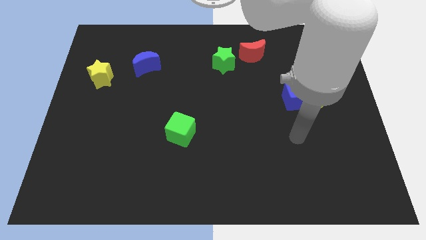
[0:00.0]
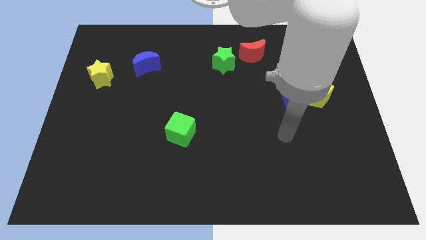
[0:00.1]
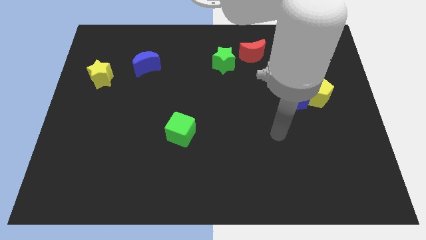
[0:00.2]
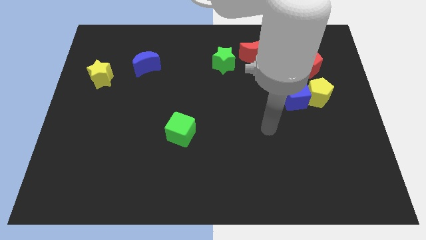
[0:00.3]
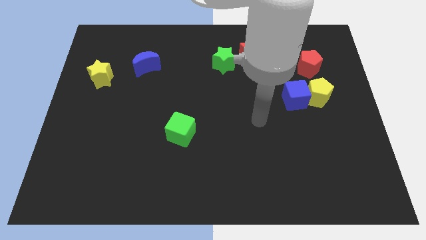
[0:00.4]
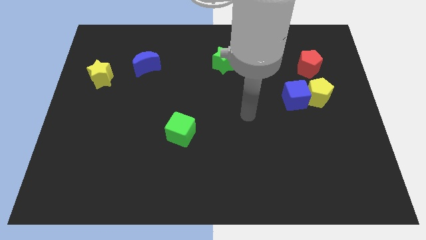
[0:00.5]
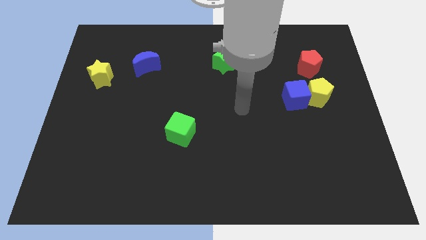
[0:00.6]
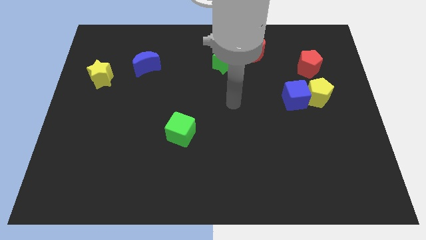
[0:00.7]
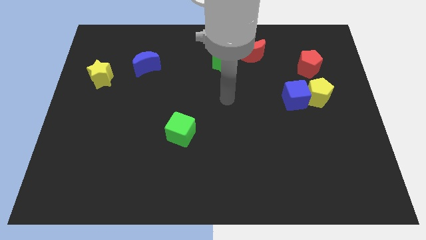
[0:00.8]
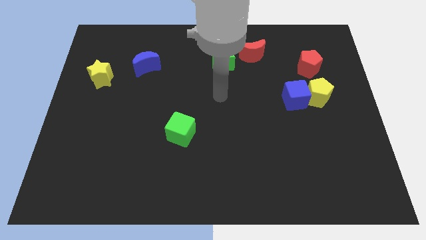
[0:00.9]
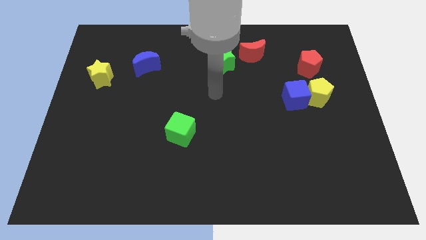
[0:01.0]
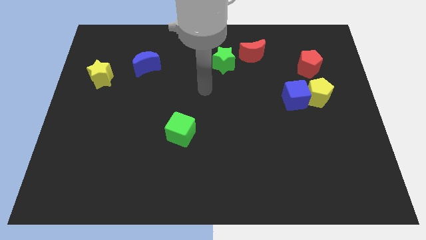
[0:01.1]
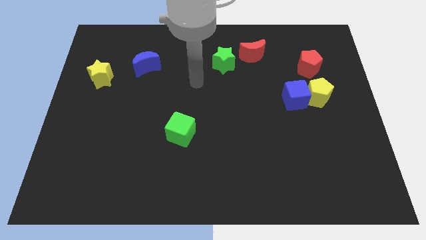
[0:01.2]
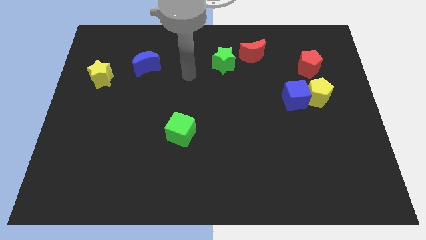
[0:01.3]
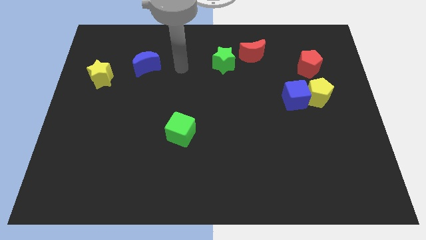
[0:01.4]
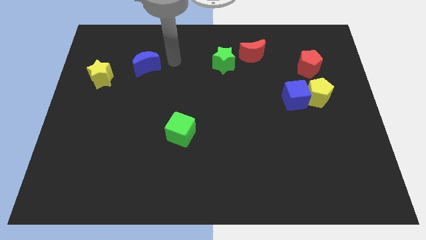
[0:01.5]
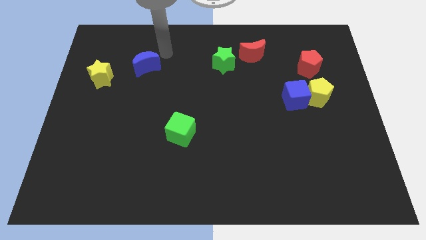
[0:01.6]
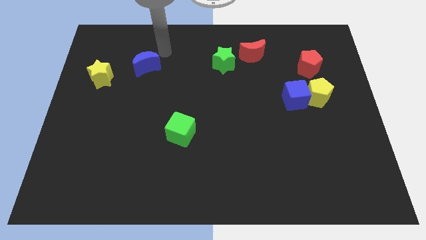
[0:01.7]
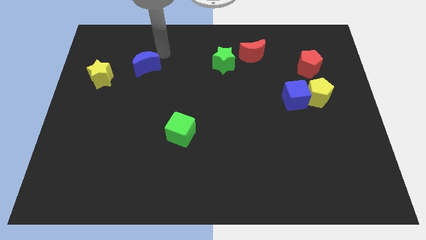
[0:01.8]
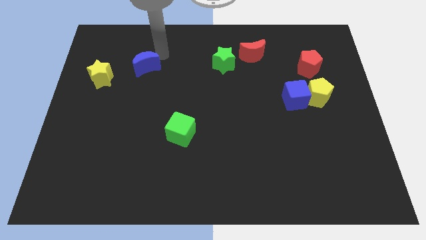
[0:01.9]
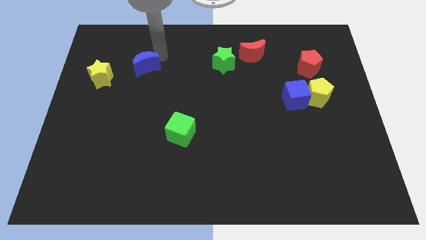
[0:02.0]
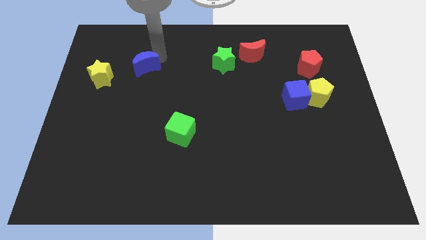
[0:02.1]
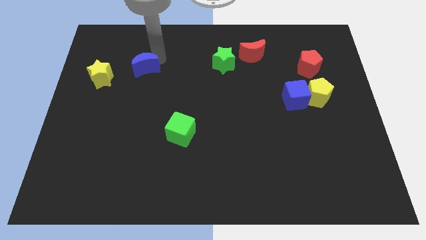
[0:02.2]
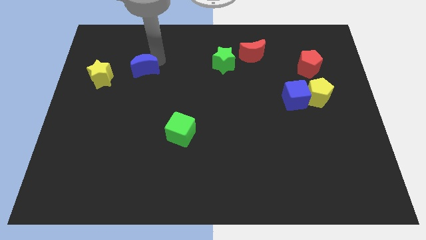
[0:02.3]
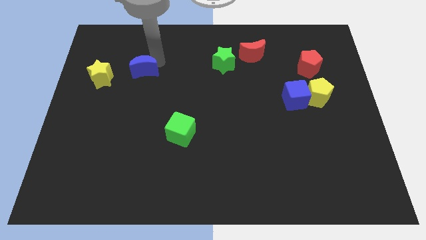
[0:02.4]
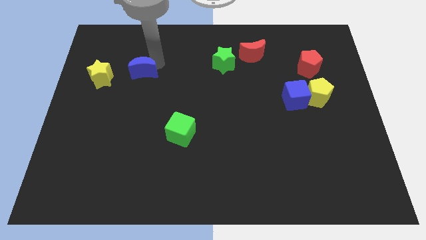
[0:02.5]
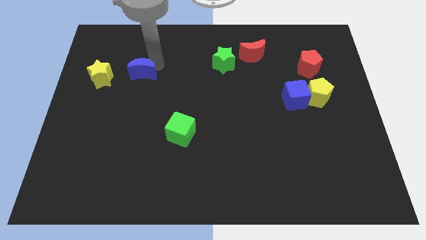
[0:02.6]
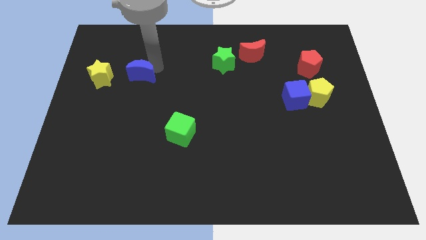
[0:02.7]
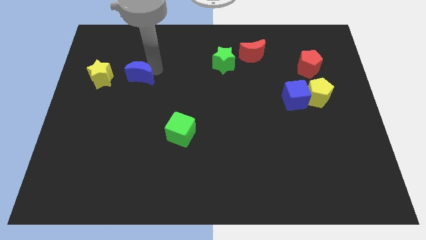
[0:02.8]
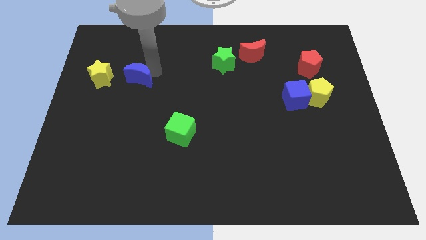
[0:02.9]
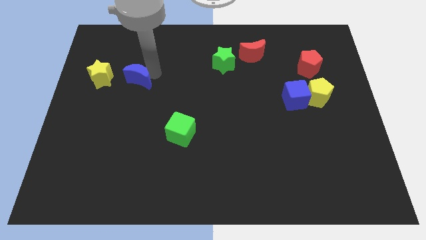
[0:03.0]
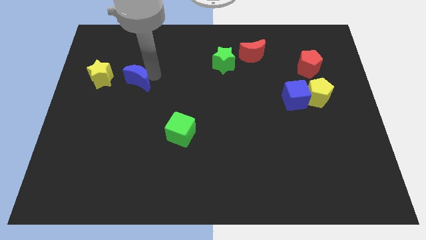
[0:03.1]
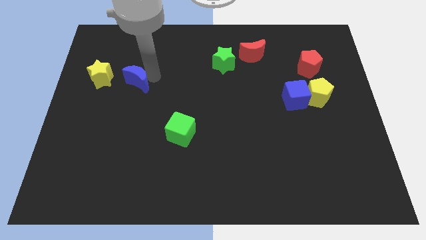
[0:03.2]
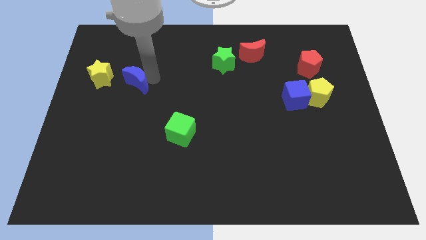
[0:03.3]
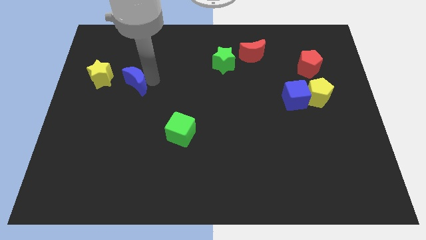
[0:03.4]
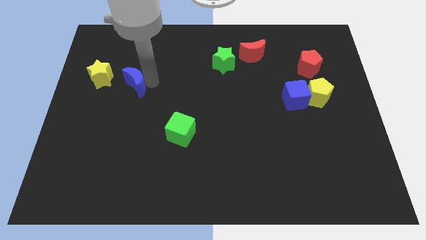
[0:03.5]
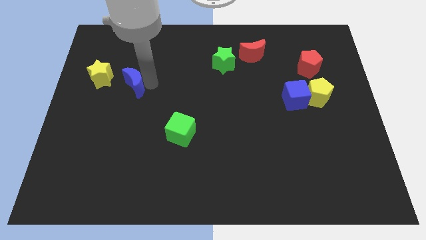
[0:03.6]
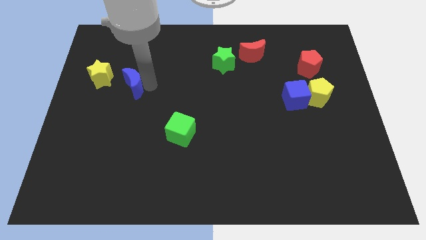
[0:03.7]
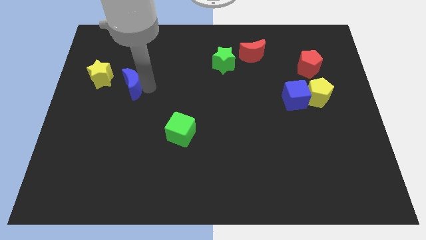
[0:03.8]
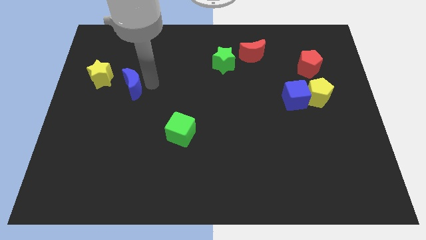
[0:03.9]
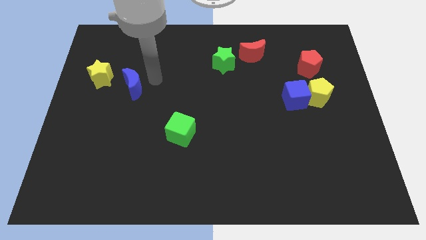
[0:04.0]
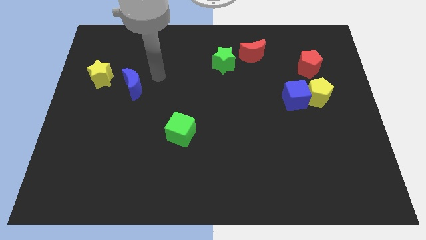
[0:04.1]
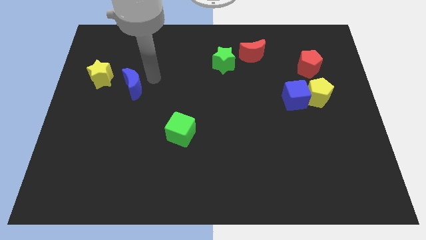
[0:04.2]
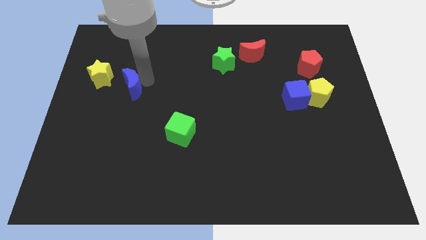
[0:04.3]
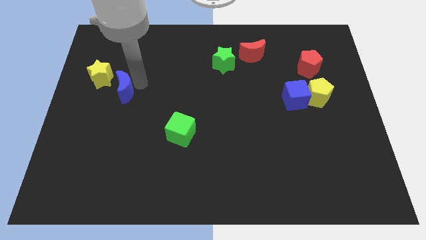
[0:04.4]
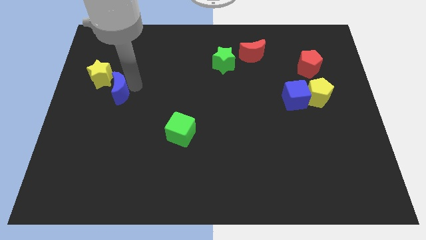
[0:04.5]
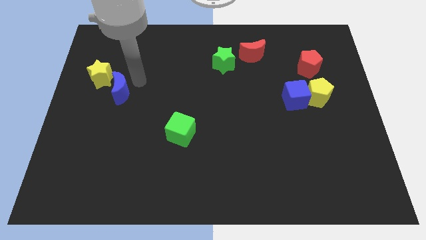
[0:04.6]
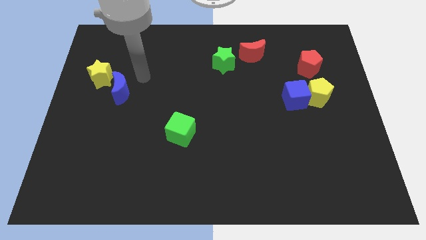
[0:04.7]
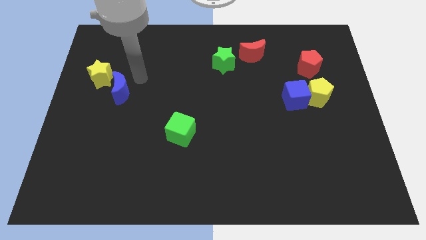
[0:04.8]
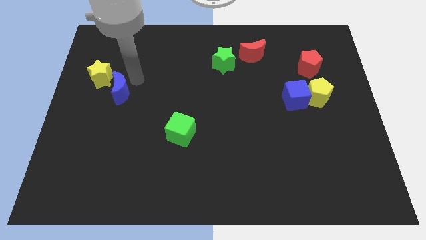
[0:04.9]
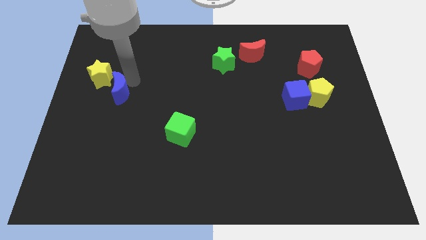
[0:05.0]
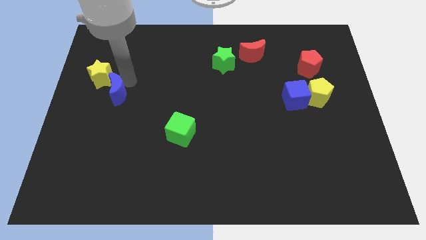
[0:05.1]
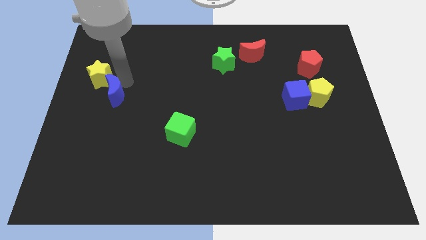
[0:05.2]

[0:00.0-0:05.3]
put the blue moon to the bottom side of the yellow star

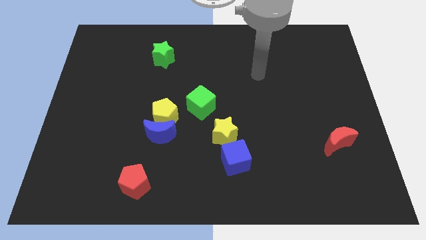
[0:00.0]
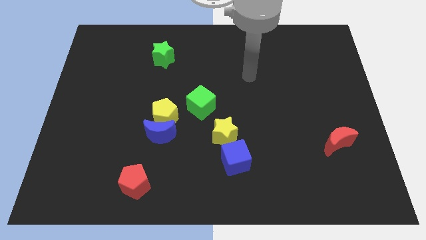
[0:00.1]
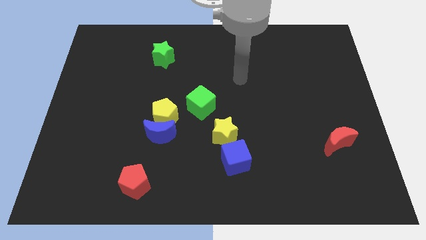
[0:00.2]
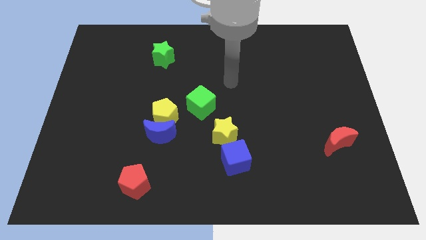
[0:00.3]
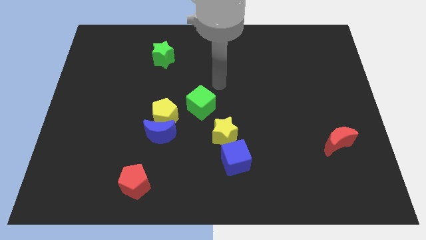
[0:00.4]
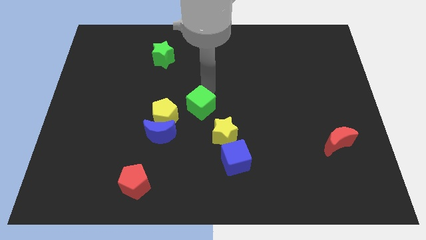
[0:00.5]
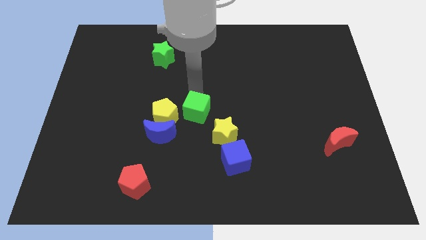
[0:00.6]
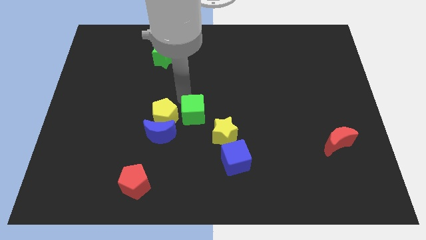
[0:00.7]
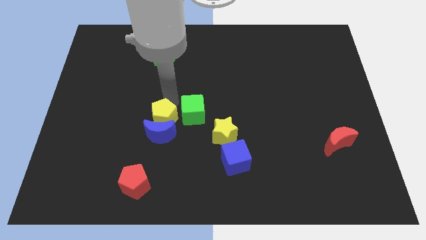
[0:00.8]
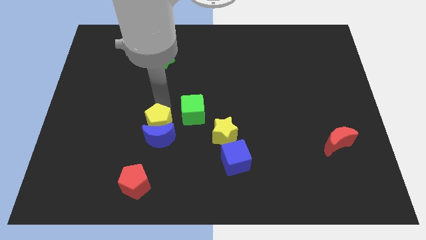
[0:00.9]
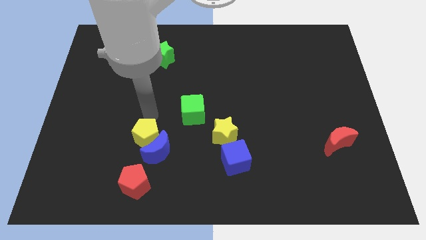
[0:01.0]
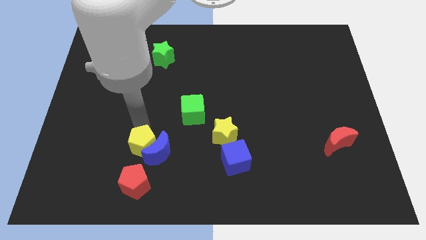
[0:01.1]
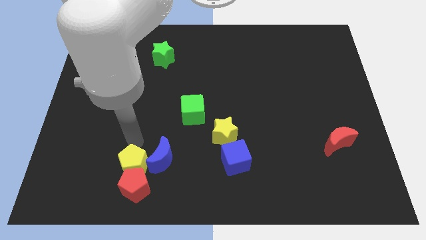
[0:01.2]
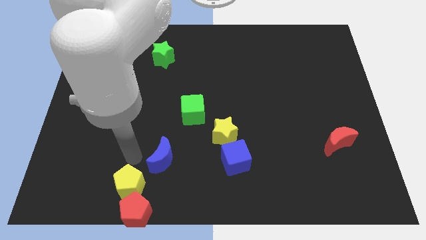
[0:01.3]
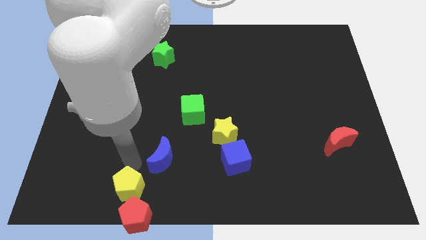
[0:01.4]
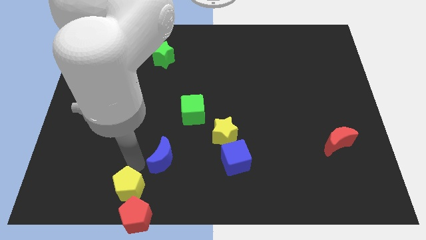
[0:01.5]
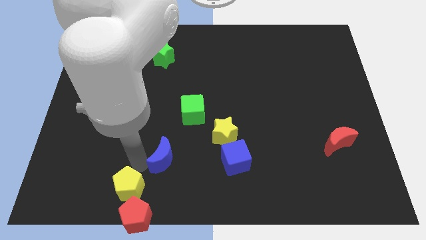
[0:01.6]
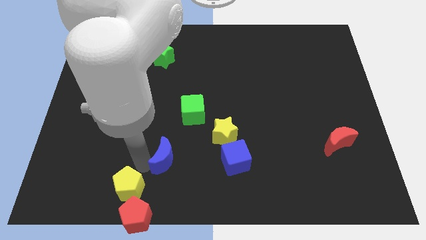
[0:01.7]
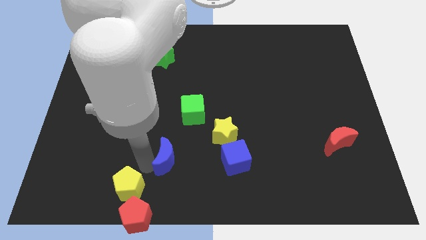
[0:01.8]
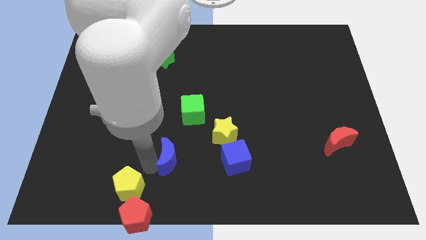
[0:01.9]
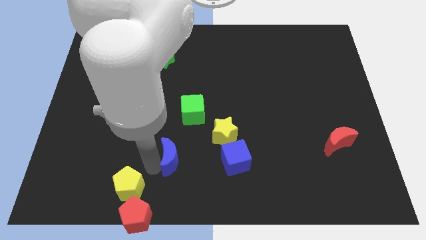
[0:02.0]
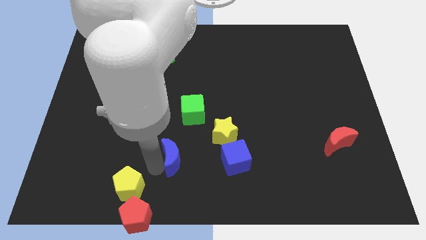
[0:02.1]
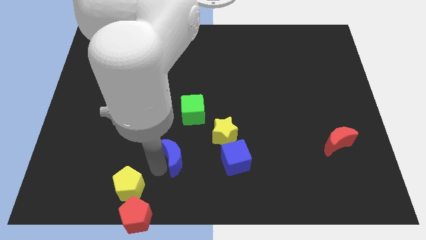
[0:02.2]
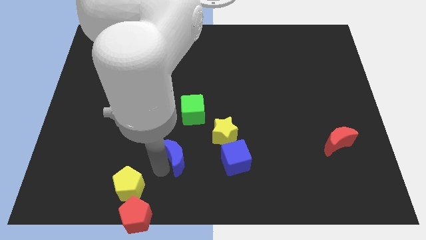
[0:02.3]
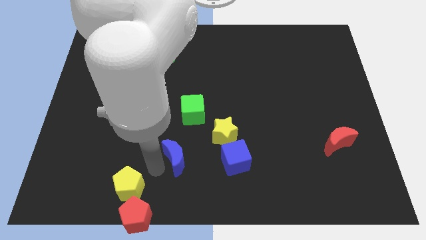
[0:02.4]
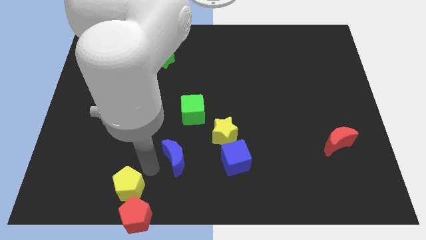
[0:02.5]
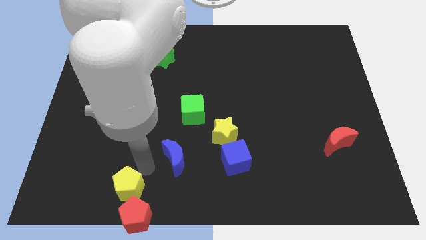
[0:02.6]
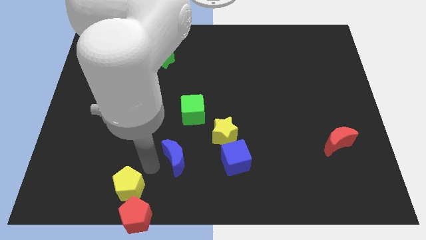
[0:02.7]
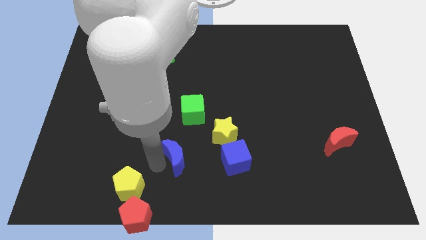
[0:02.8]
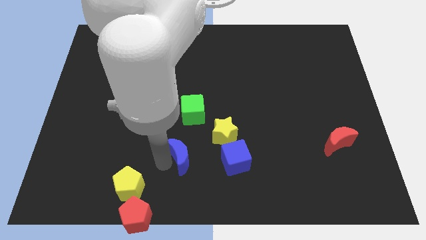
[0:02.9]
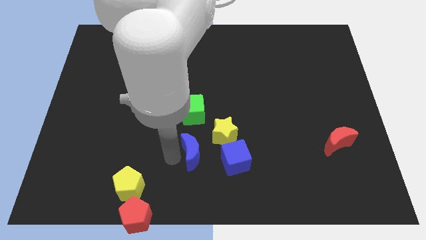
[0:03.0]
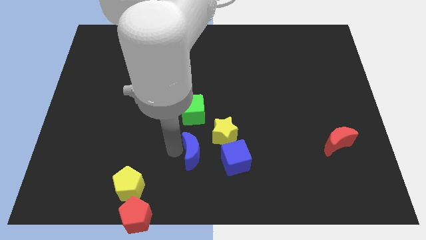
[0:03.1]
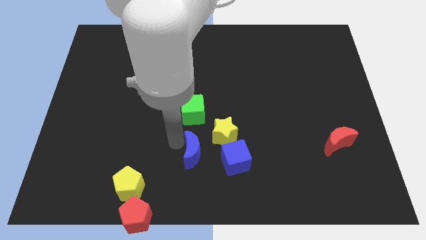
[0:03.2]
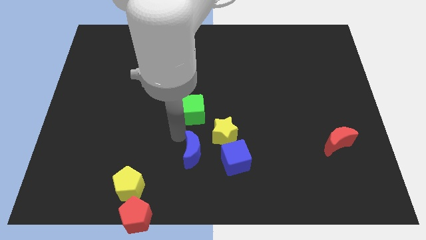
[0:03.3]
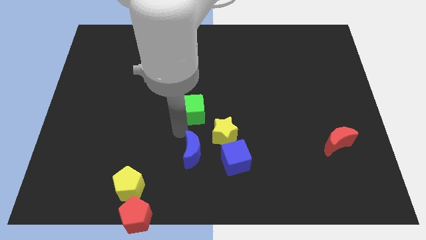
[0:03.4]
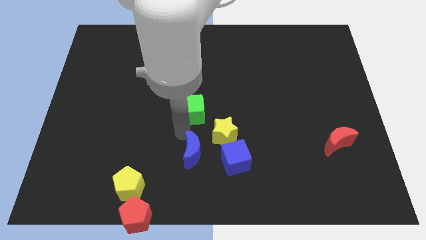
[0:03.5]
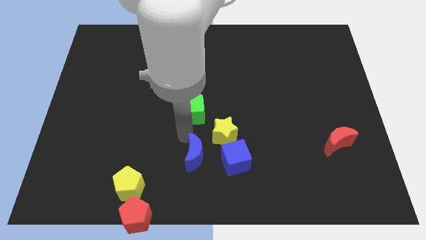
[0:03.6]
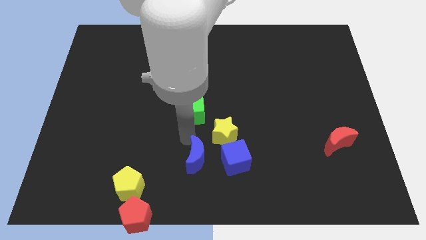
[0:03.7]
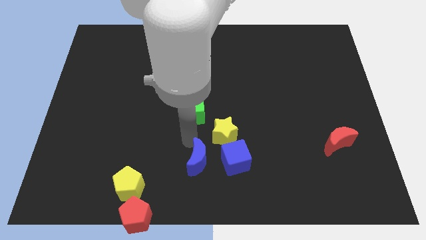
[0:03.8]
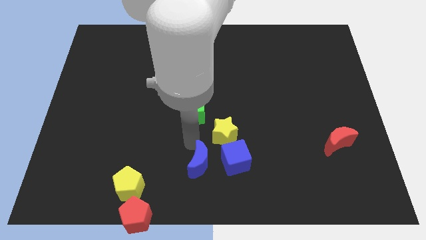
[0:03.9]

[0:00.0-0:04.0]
put the blue moon diagonally down and to the left of the blue cube
